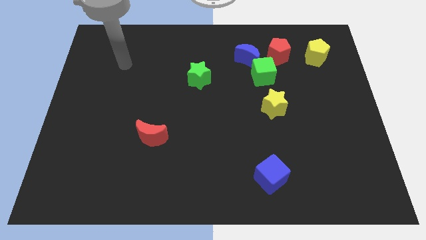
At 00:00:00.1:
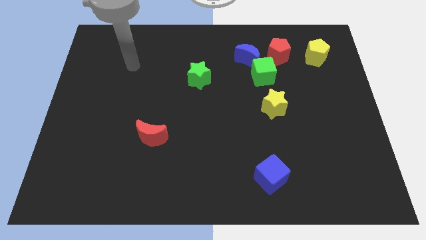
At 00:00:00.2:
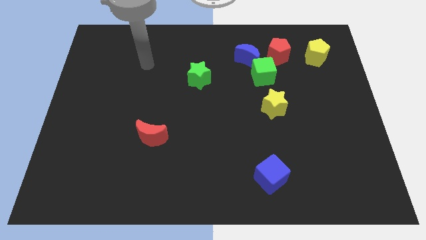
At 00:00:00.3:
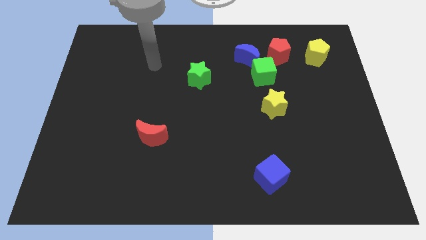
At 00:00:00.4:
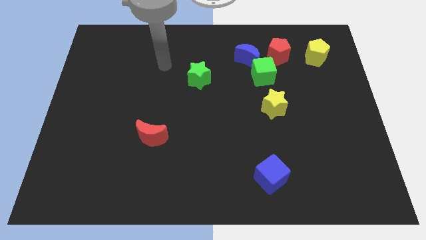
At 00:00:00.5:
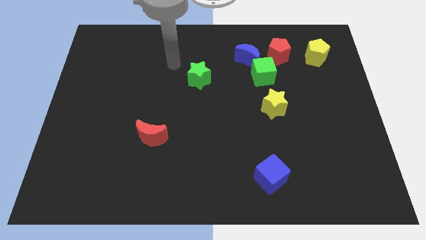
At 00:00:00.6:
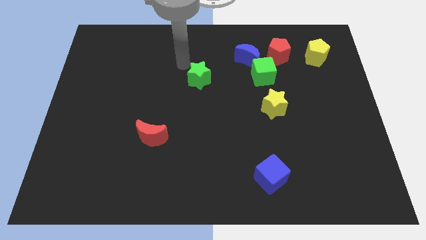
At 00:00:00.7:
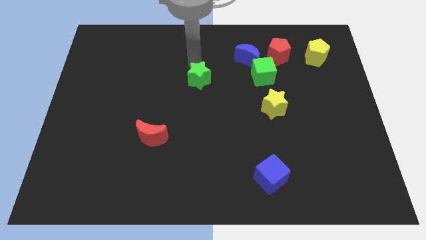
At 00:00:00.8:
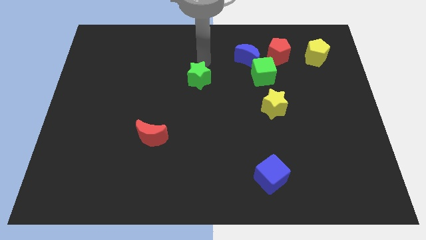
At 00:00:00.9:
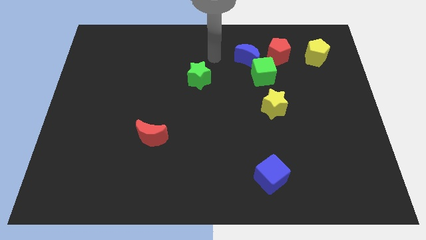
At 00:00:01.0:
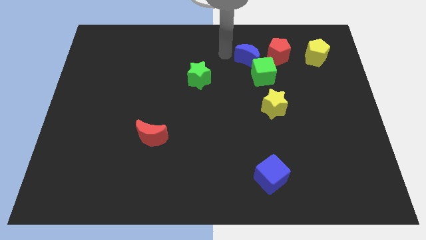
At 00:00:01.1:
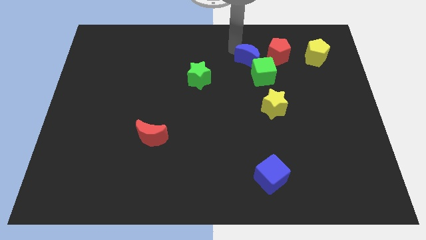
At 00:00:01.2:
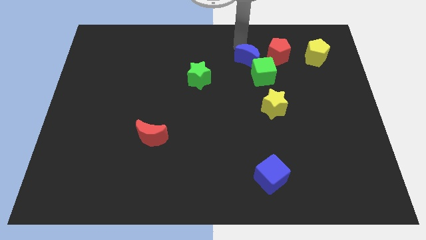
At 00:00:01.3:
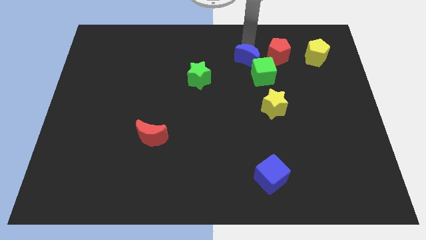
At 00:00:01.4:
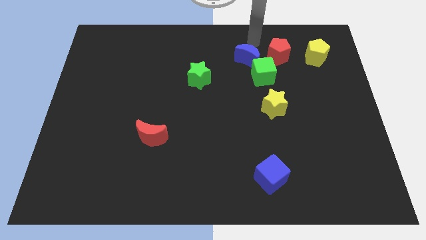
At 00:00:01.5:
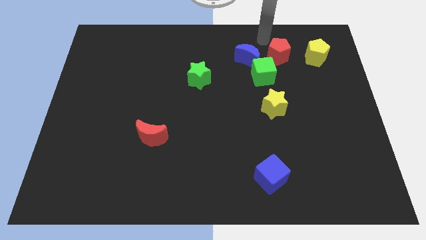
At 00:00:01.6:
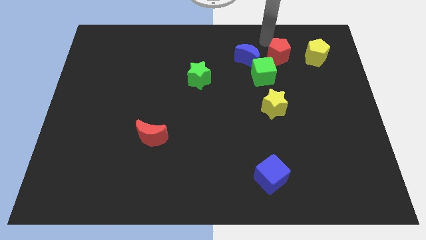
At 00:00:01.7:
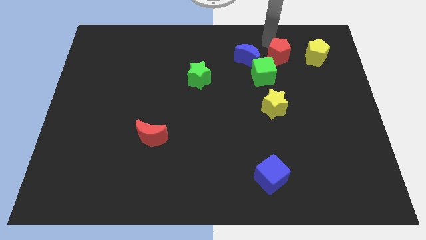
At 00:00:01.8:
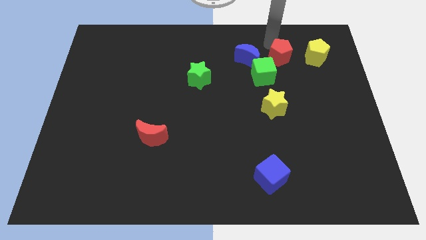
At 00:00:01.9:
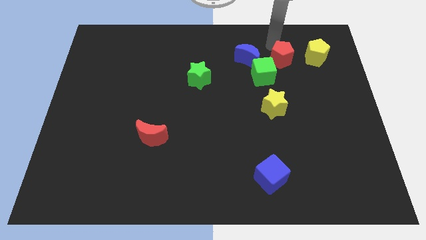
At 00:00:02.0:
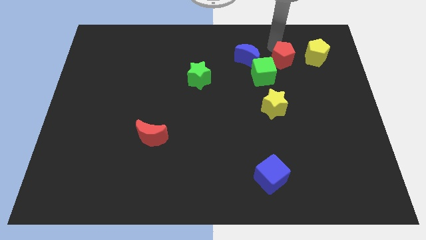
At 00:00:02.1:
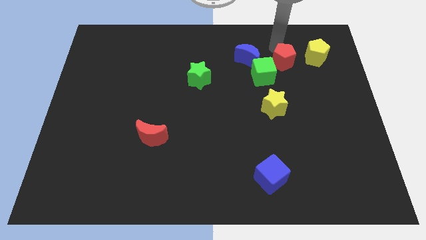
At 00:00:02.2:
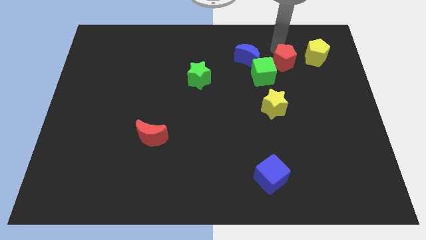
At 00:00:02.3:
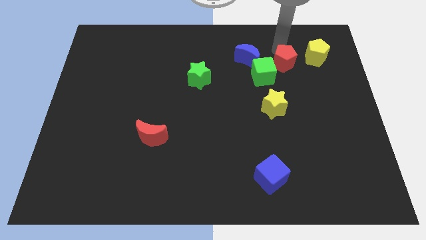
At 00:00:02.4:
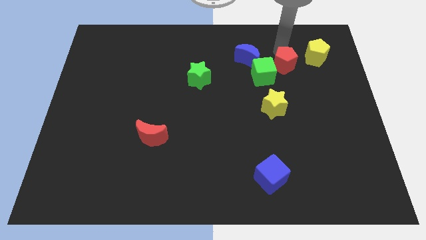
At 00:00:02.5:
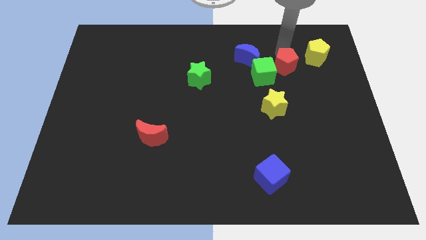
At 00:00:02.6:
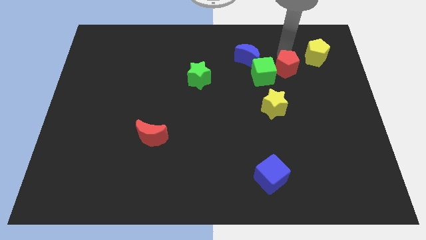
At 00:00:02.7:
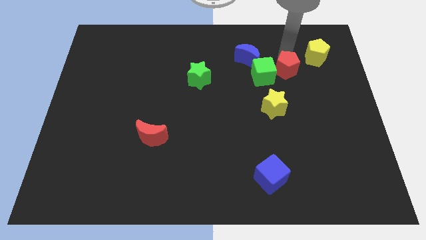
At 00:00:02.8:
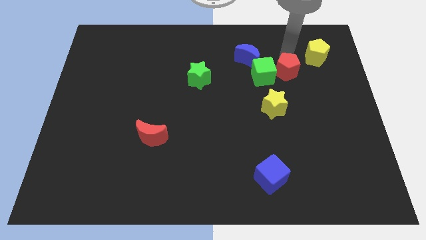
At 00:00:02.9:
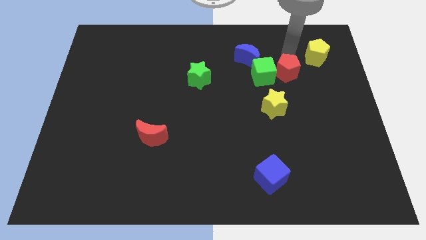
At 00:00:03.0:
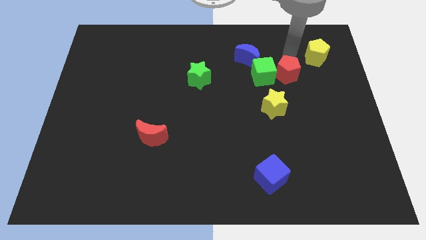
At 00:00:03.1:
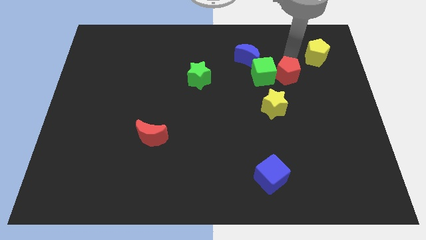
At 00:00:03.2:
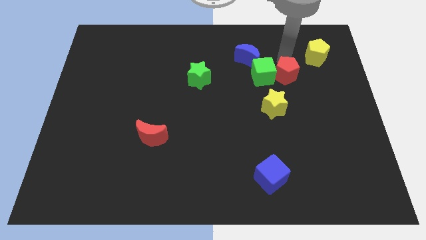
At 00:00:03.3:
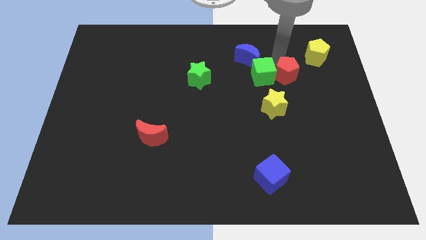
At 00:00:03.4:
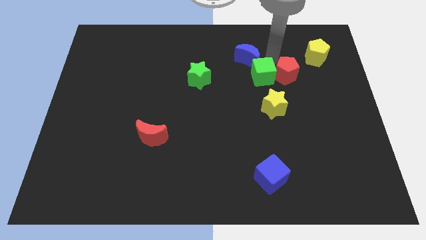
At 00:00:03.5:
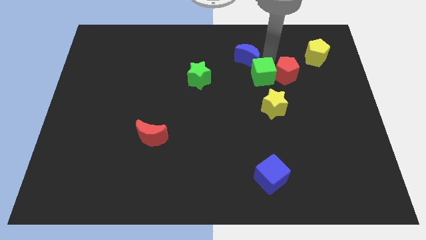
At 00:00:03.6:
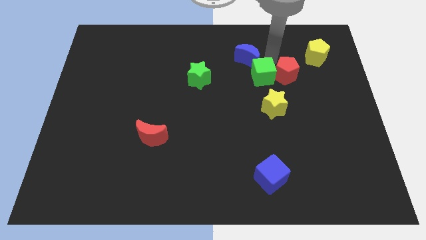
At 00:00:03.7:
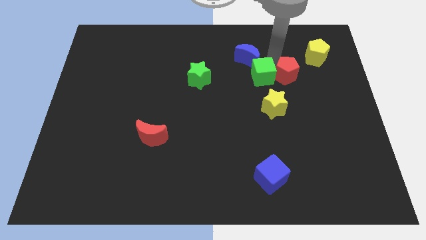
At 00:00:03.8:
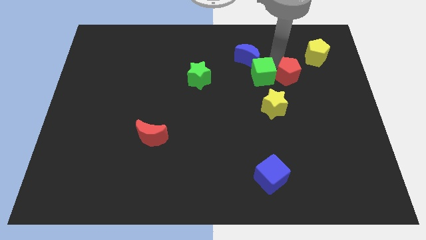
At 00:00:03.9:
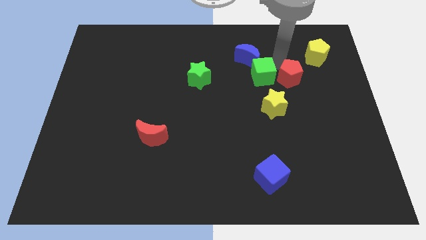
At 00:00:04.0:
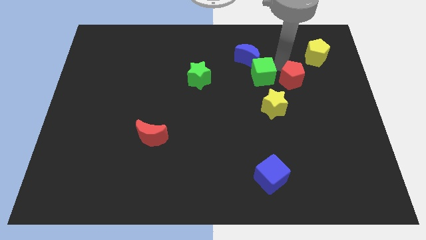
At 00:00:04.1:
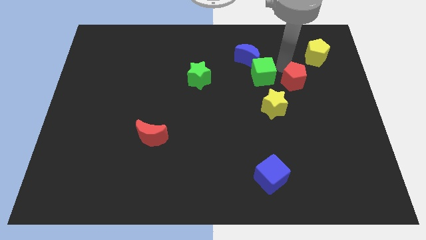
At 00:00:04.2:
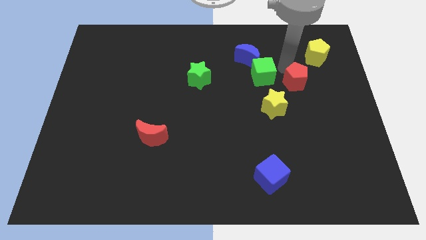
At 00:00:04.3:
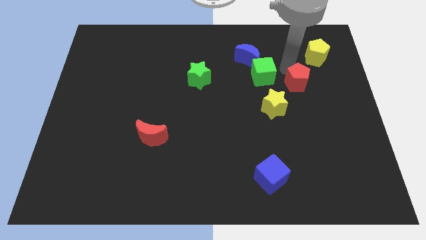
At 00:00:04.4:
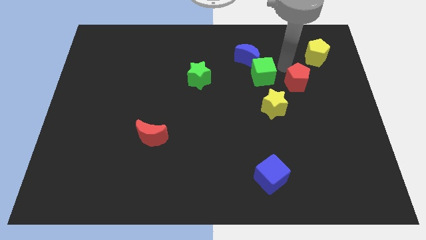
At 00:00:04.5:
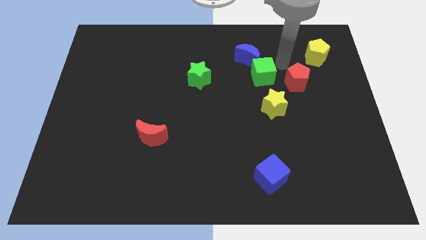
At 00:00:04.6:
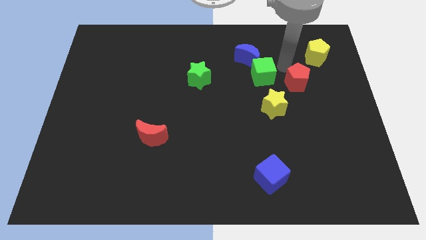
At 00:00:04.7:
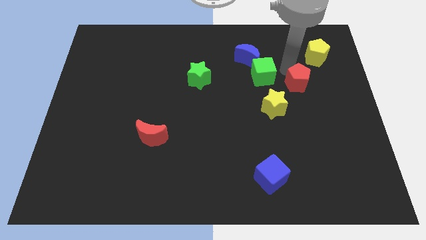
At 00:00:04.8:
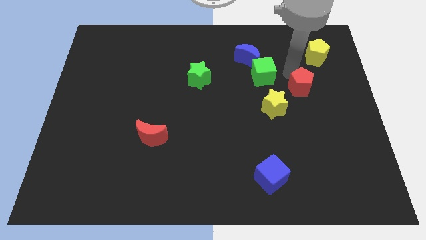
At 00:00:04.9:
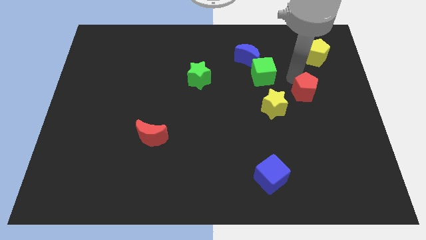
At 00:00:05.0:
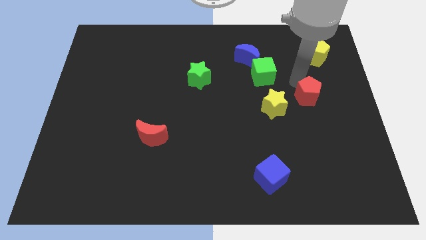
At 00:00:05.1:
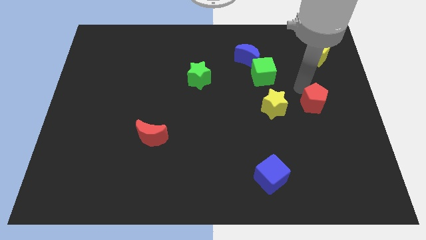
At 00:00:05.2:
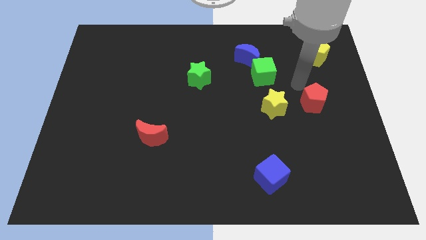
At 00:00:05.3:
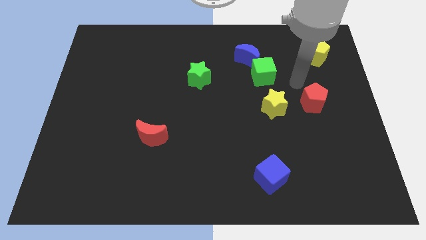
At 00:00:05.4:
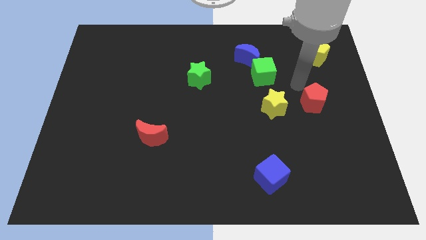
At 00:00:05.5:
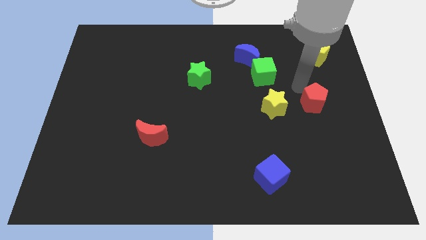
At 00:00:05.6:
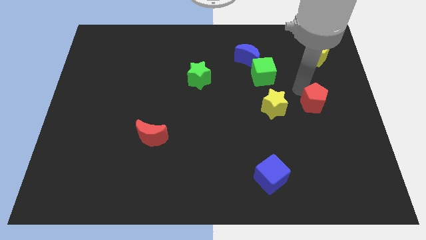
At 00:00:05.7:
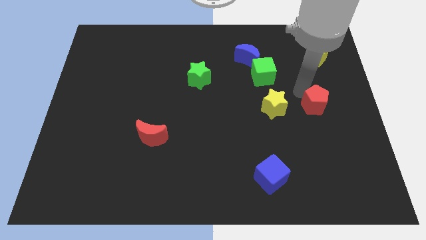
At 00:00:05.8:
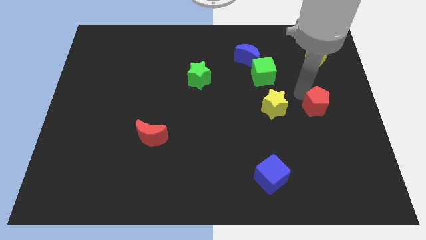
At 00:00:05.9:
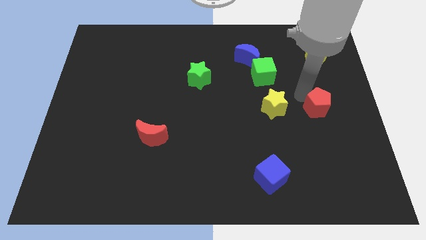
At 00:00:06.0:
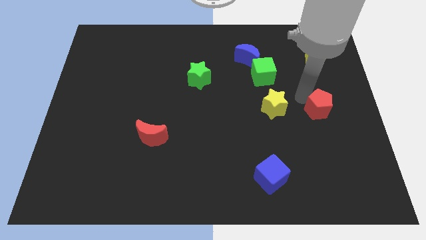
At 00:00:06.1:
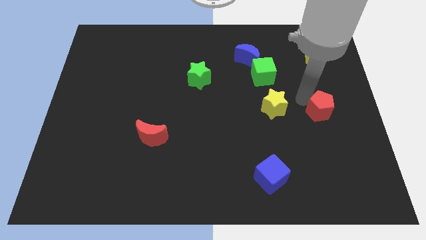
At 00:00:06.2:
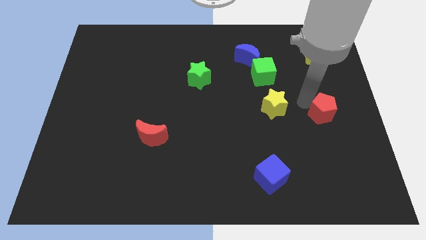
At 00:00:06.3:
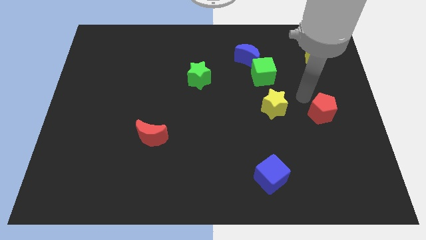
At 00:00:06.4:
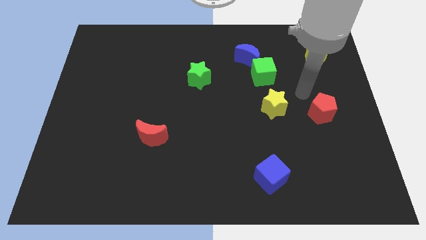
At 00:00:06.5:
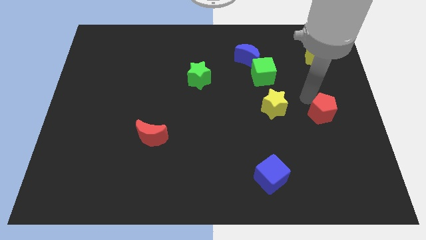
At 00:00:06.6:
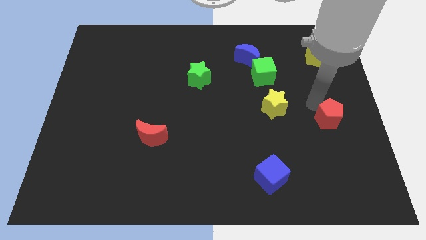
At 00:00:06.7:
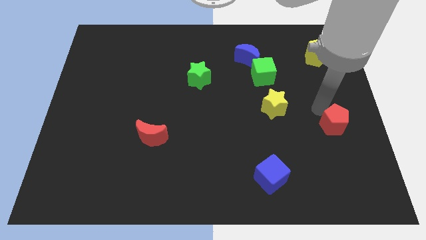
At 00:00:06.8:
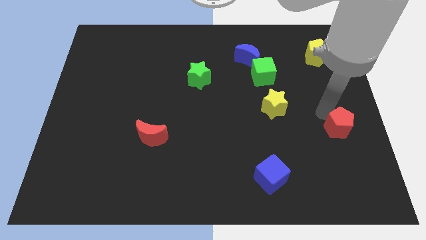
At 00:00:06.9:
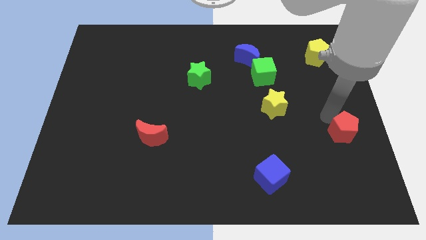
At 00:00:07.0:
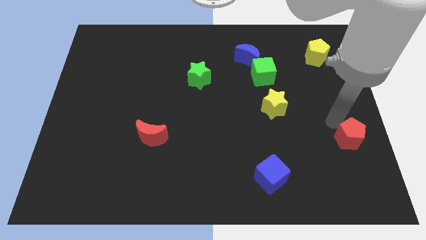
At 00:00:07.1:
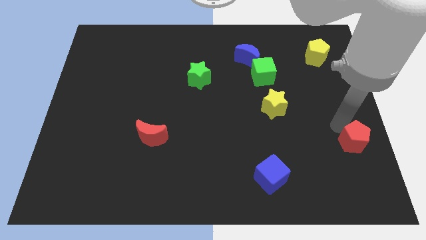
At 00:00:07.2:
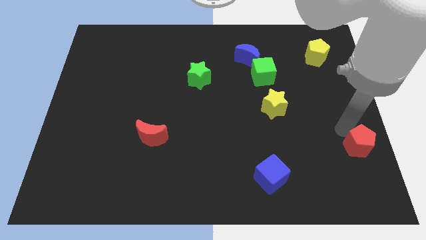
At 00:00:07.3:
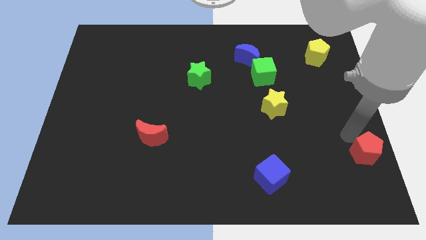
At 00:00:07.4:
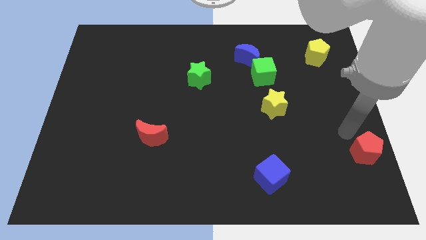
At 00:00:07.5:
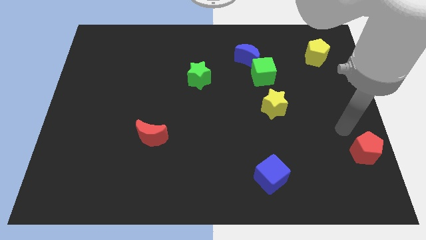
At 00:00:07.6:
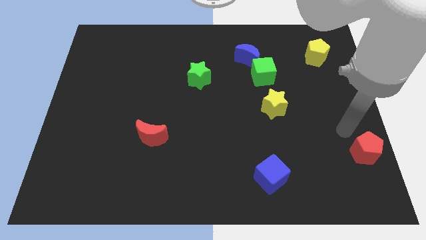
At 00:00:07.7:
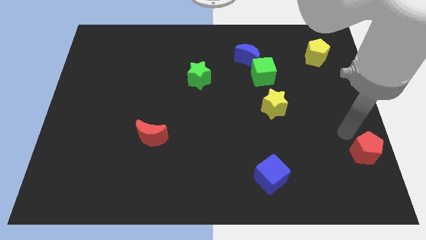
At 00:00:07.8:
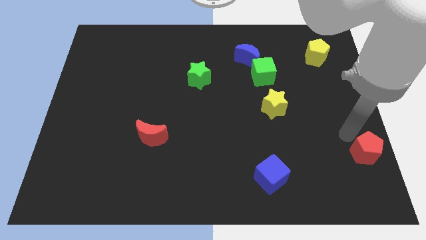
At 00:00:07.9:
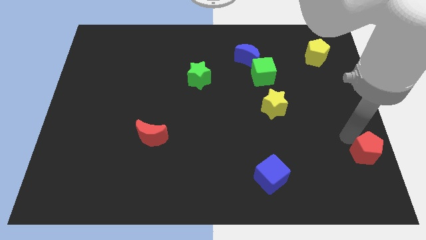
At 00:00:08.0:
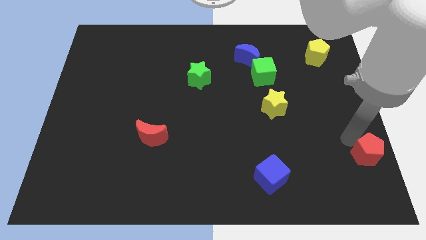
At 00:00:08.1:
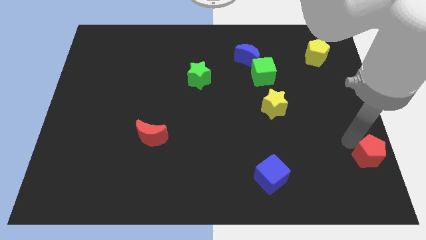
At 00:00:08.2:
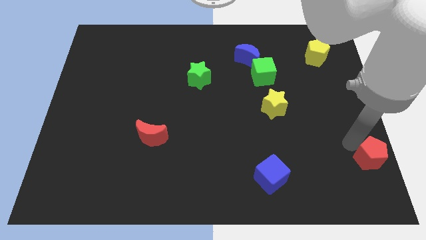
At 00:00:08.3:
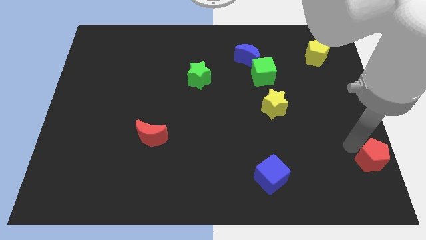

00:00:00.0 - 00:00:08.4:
push the red pentagon to the bottom right of the board
